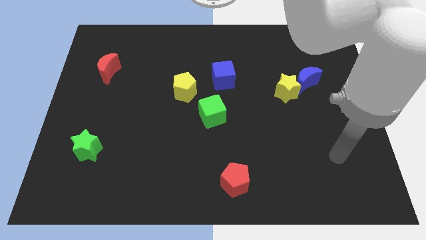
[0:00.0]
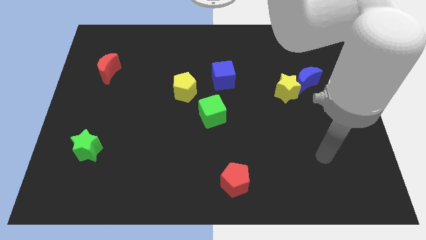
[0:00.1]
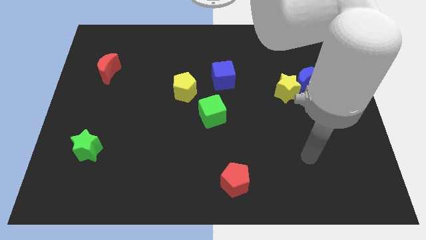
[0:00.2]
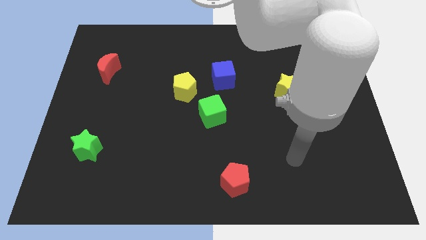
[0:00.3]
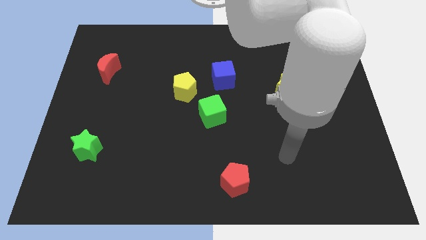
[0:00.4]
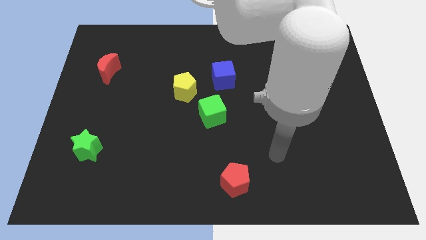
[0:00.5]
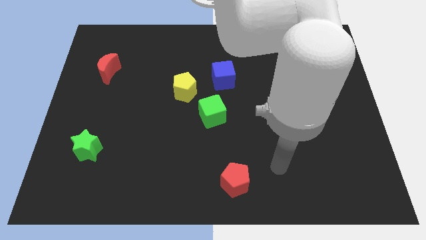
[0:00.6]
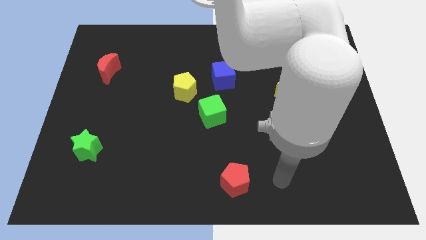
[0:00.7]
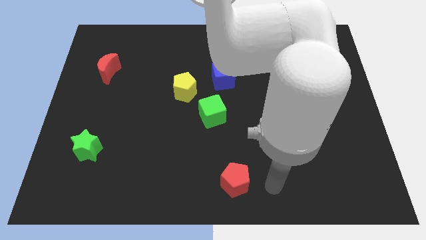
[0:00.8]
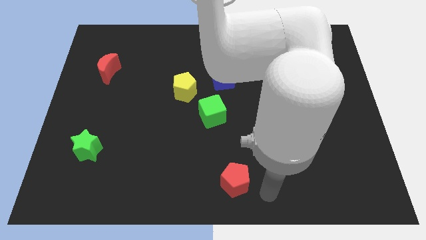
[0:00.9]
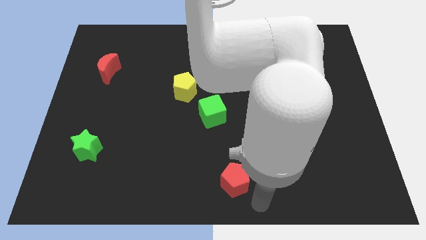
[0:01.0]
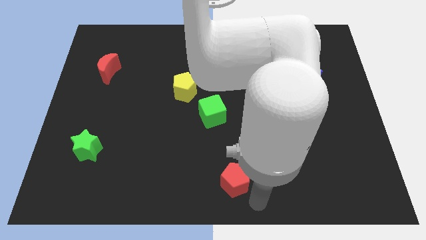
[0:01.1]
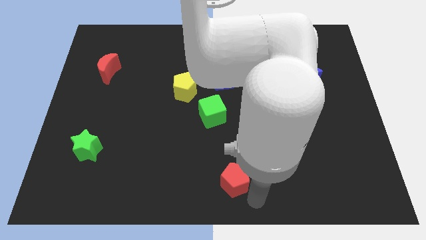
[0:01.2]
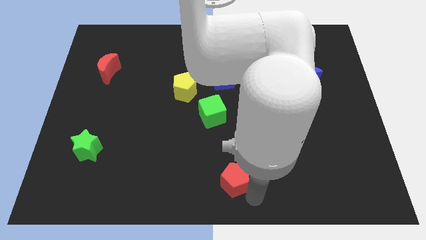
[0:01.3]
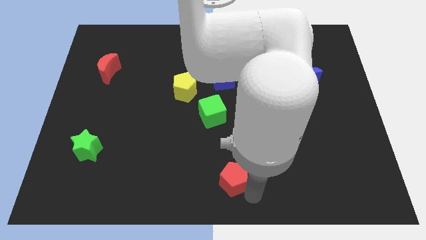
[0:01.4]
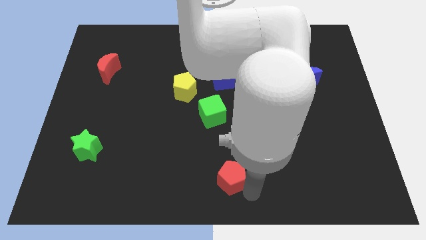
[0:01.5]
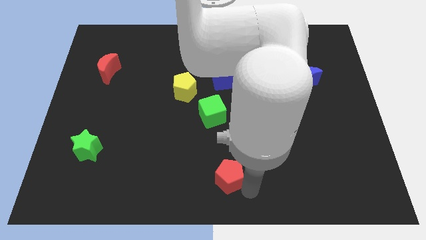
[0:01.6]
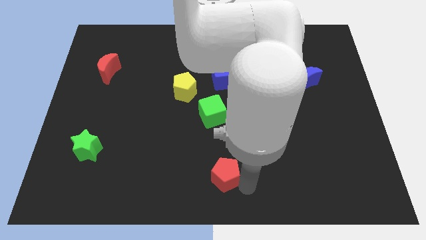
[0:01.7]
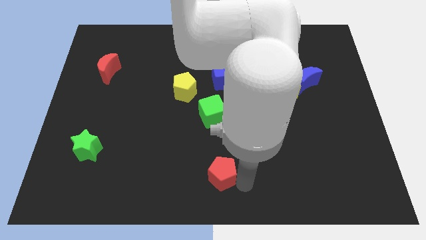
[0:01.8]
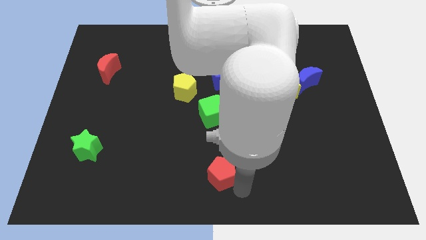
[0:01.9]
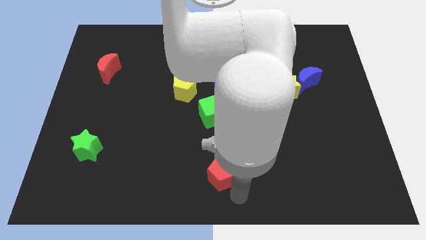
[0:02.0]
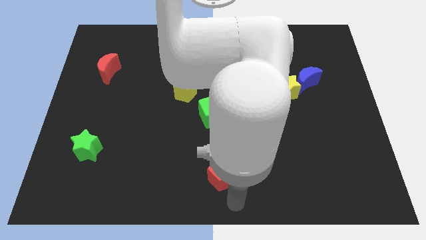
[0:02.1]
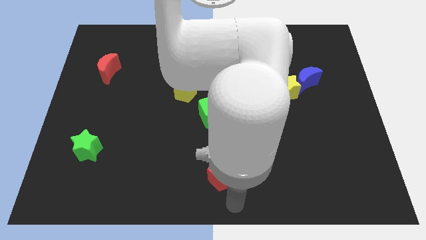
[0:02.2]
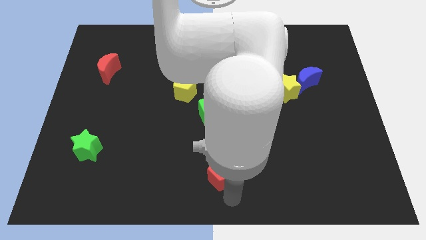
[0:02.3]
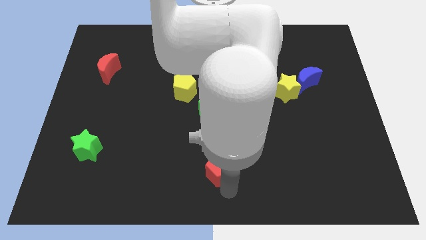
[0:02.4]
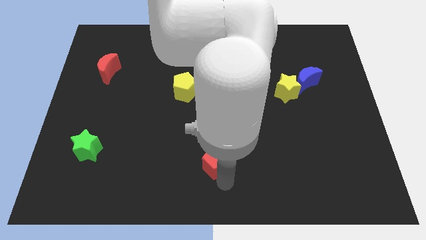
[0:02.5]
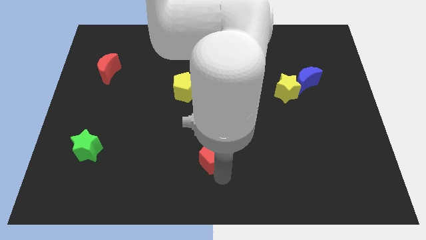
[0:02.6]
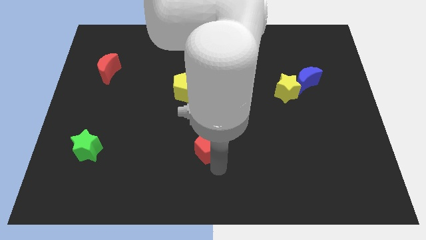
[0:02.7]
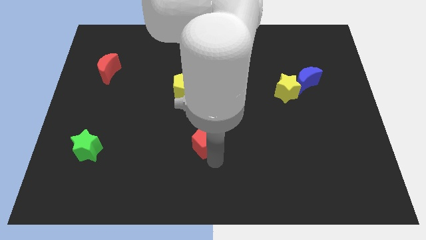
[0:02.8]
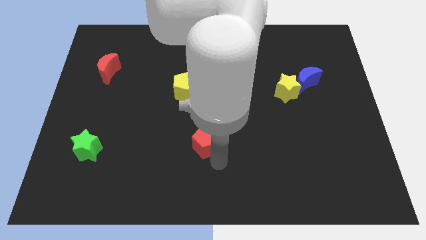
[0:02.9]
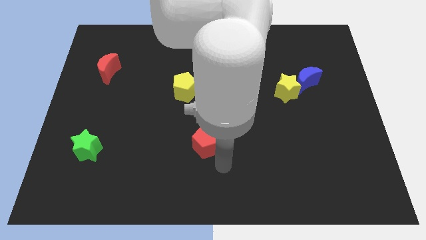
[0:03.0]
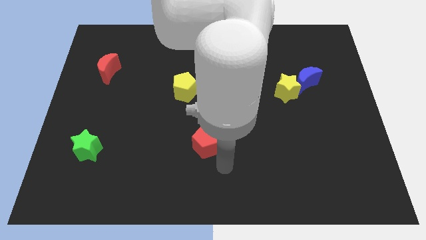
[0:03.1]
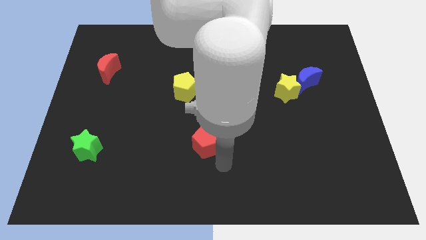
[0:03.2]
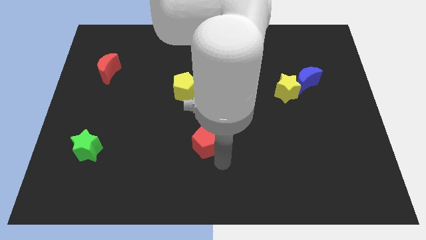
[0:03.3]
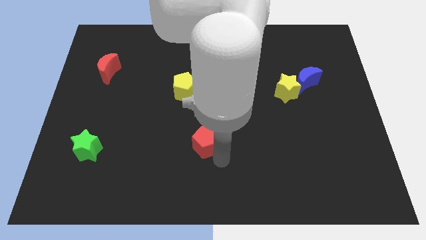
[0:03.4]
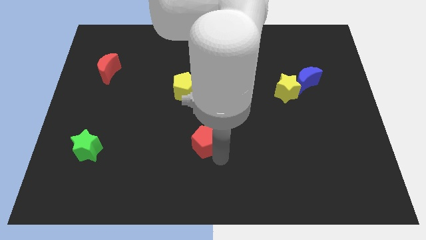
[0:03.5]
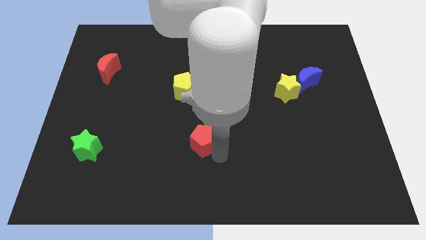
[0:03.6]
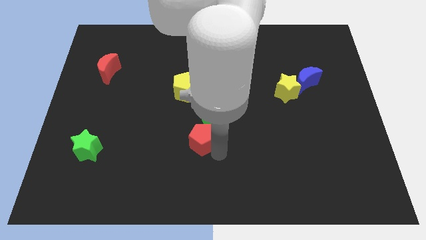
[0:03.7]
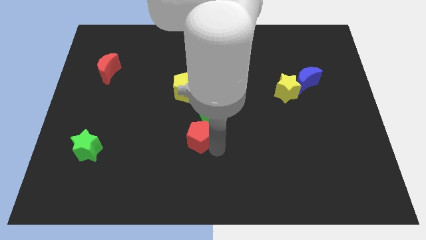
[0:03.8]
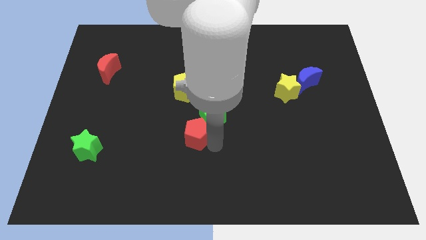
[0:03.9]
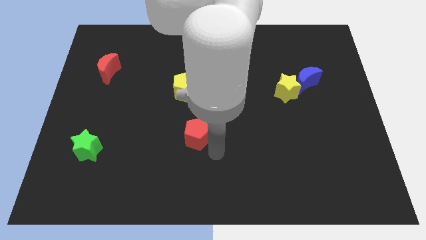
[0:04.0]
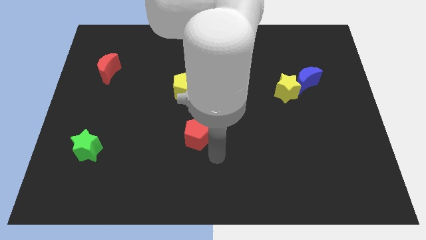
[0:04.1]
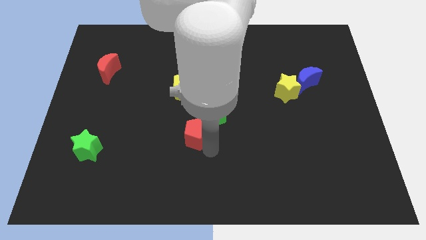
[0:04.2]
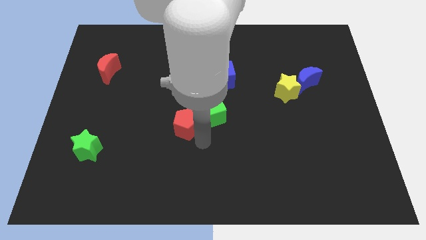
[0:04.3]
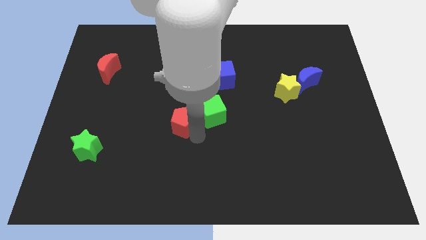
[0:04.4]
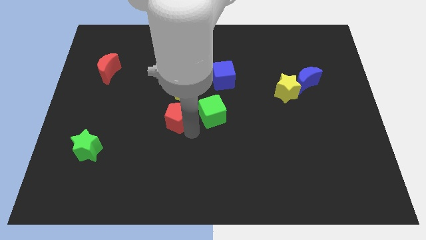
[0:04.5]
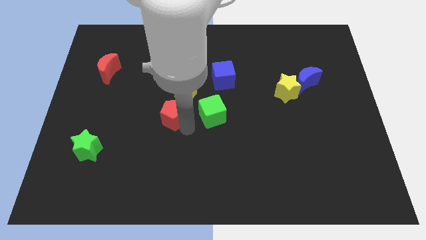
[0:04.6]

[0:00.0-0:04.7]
move the red pentagon up and to the left diagonally

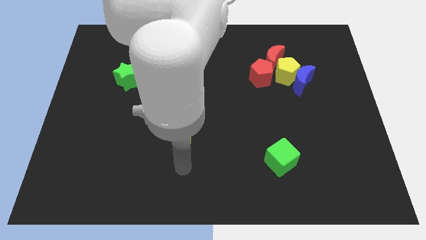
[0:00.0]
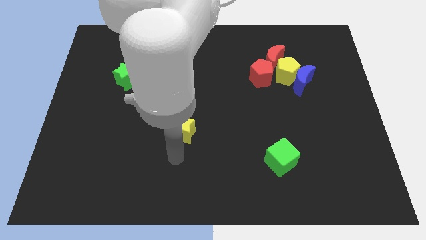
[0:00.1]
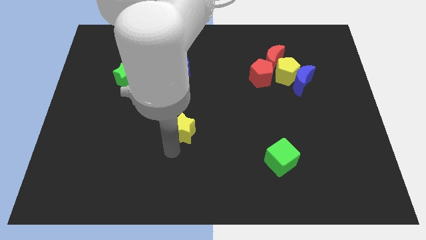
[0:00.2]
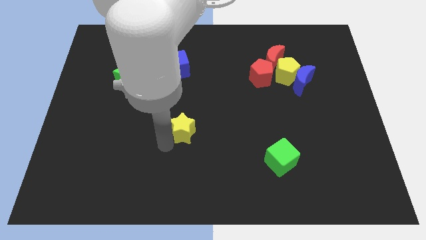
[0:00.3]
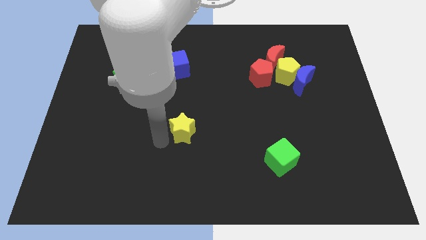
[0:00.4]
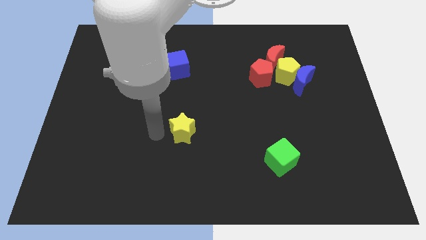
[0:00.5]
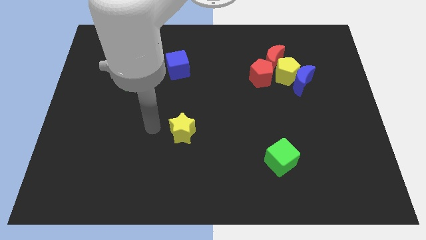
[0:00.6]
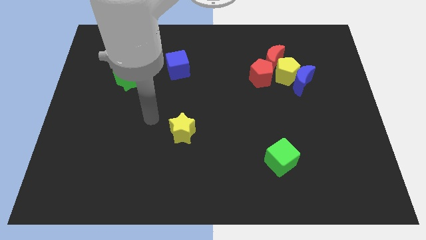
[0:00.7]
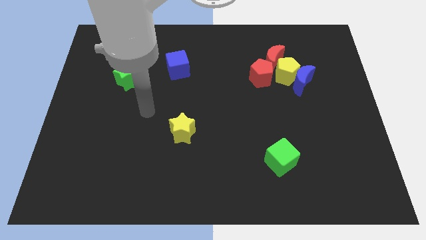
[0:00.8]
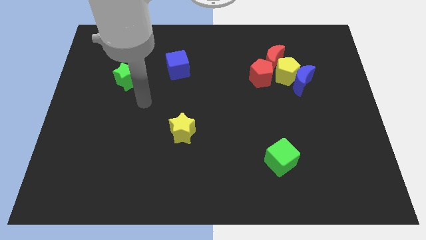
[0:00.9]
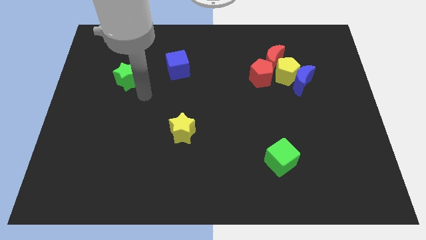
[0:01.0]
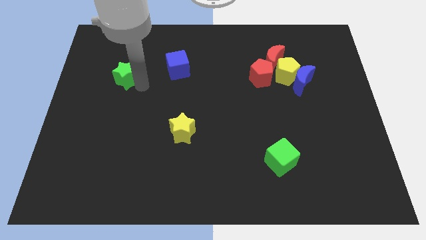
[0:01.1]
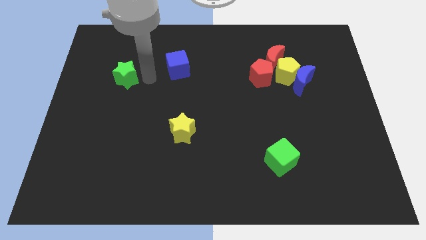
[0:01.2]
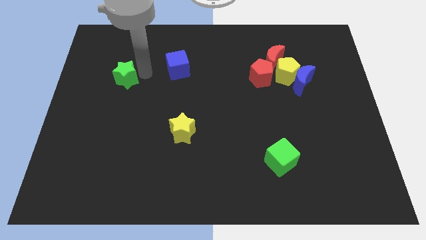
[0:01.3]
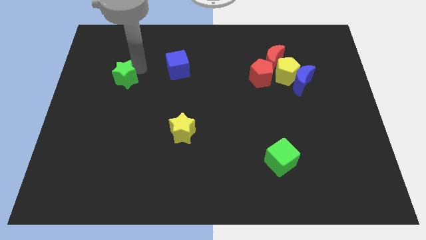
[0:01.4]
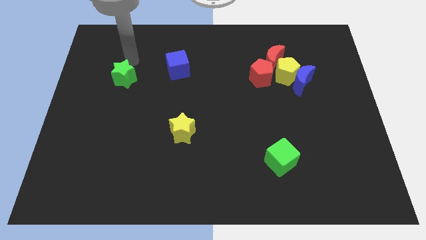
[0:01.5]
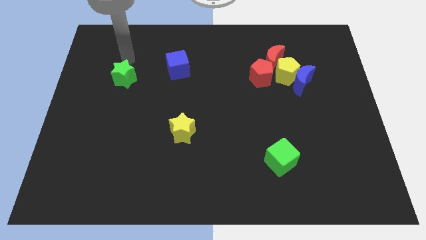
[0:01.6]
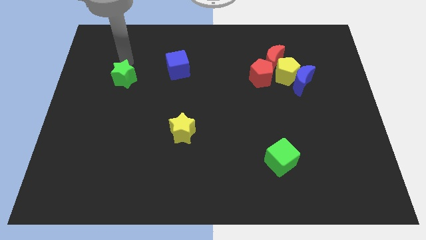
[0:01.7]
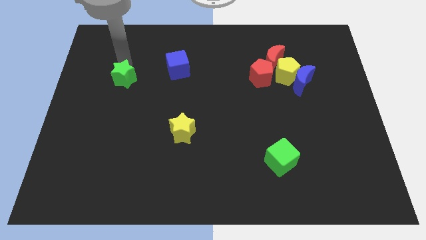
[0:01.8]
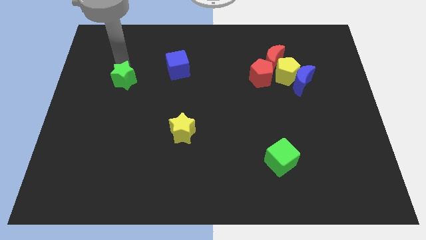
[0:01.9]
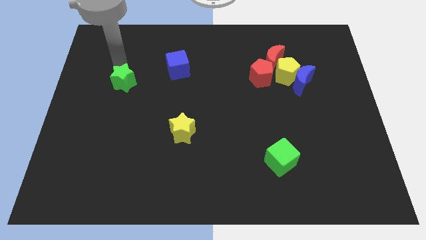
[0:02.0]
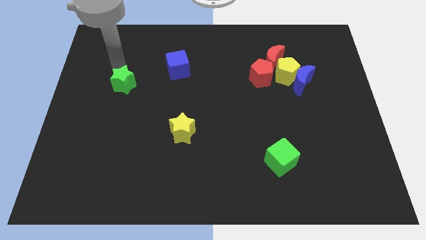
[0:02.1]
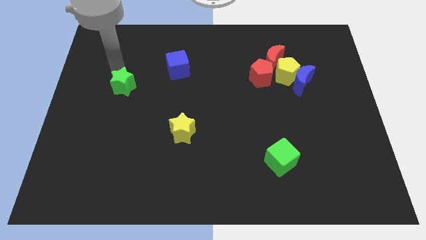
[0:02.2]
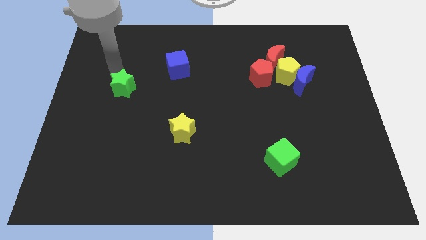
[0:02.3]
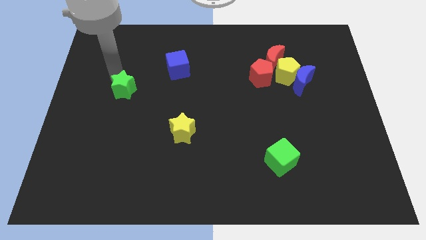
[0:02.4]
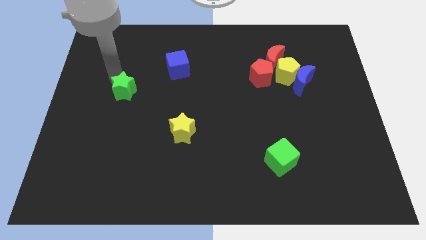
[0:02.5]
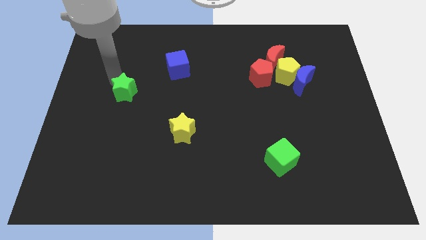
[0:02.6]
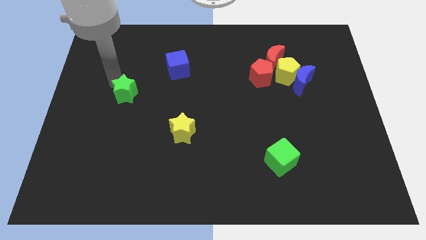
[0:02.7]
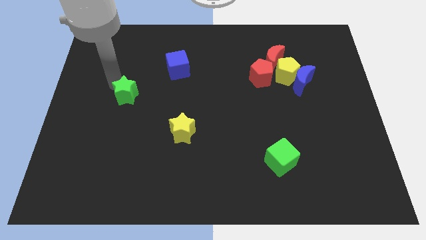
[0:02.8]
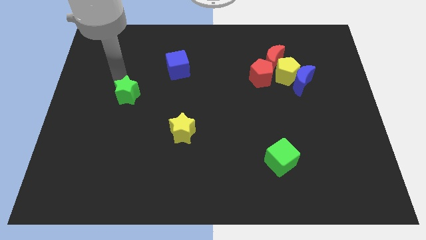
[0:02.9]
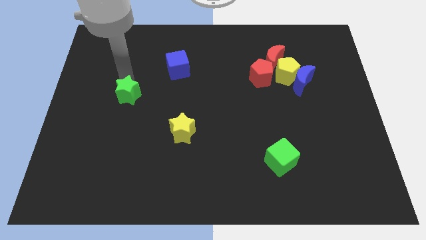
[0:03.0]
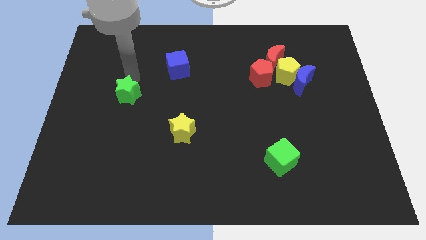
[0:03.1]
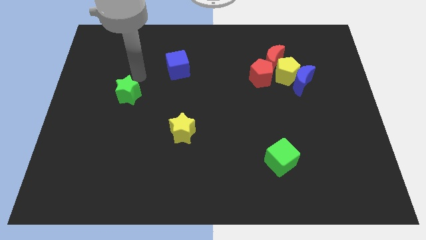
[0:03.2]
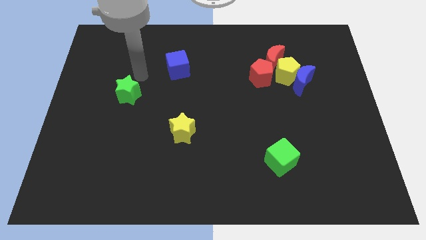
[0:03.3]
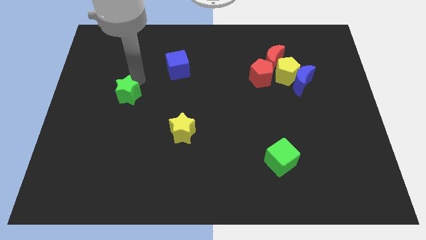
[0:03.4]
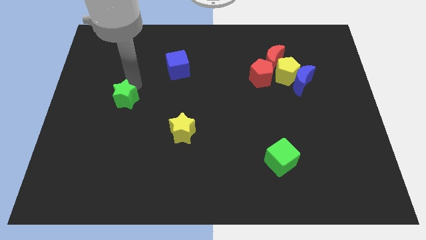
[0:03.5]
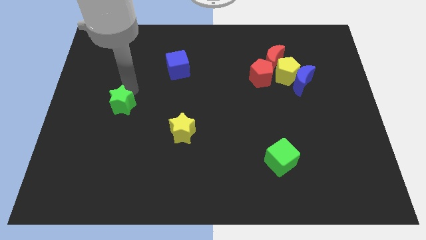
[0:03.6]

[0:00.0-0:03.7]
slightly move the green star downwards
